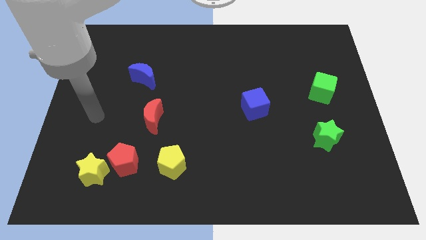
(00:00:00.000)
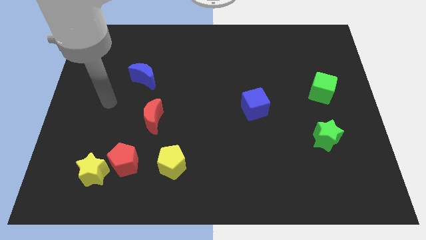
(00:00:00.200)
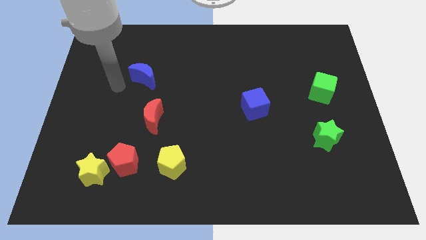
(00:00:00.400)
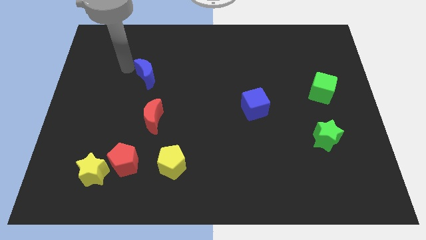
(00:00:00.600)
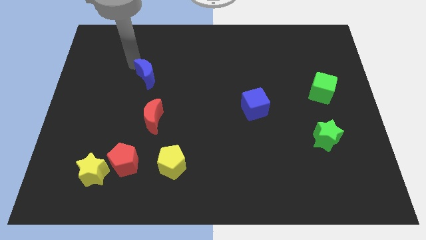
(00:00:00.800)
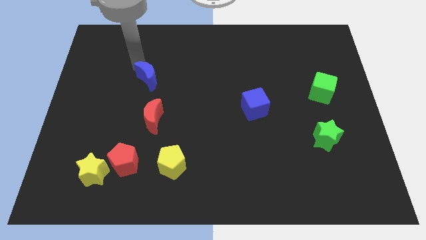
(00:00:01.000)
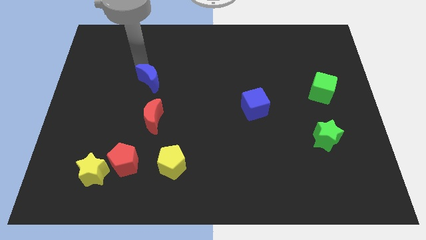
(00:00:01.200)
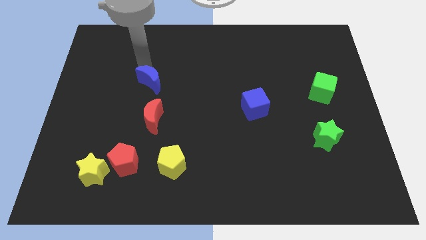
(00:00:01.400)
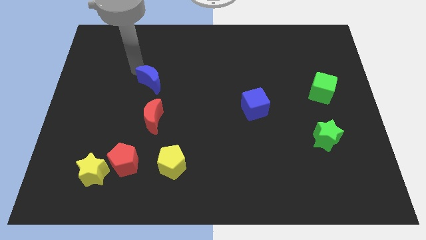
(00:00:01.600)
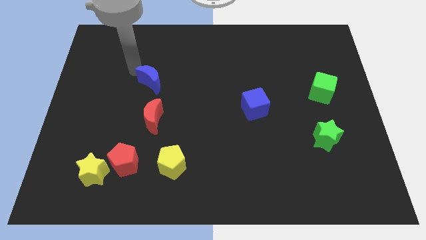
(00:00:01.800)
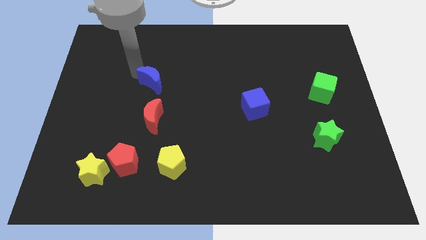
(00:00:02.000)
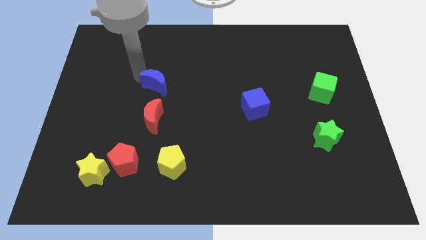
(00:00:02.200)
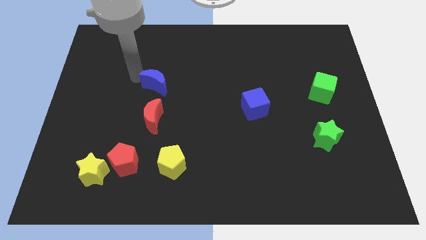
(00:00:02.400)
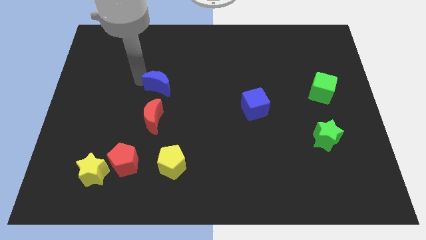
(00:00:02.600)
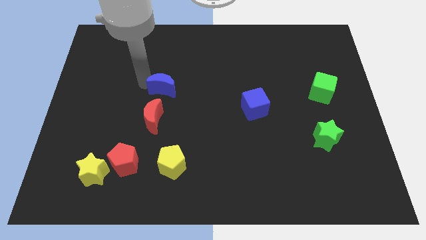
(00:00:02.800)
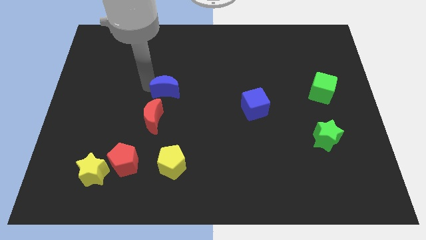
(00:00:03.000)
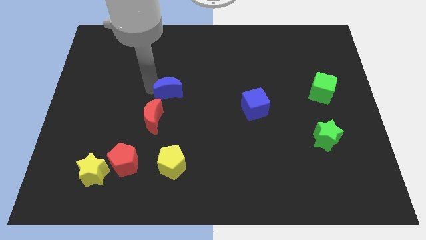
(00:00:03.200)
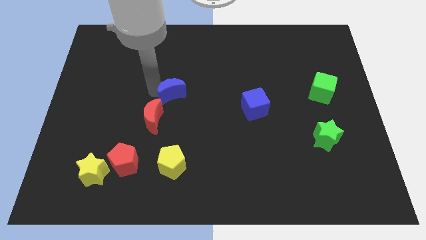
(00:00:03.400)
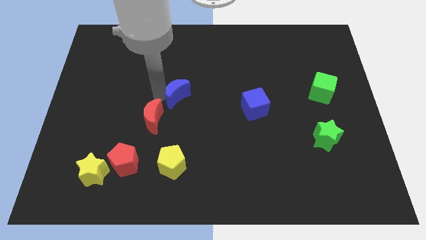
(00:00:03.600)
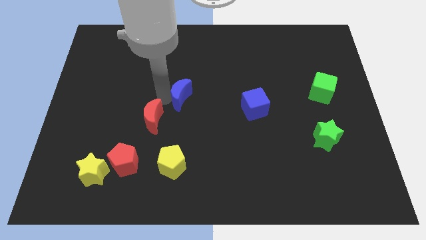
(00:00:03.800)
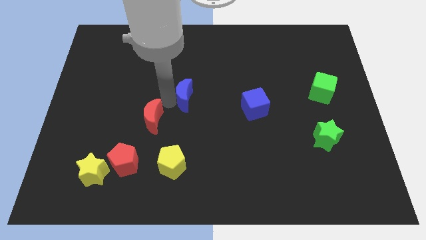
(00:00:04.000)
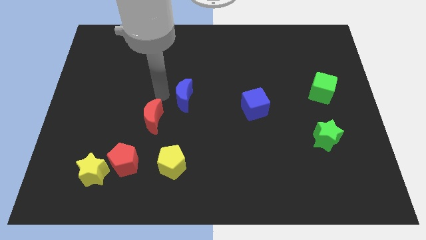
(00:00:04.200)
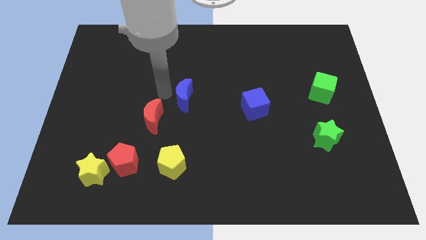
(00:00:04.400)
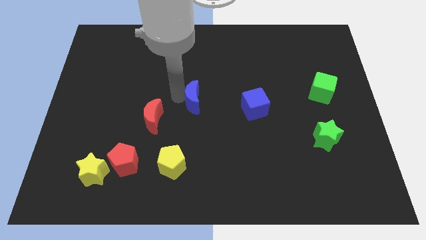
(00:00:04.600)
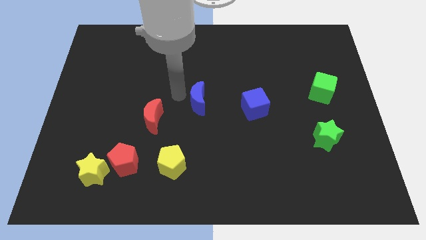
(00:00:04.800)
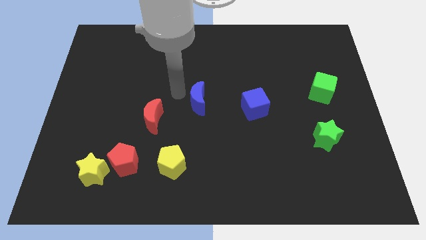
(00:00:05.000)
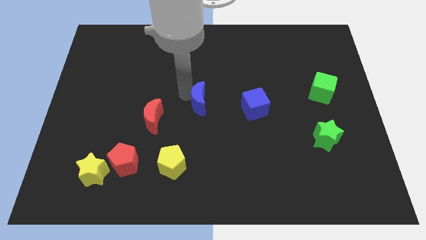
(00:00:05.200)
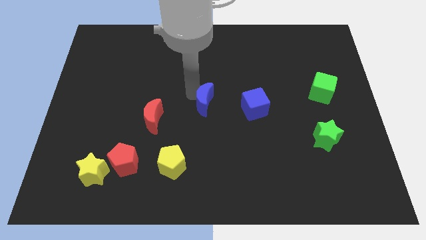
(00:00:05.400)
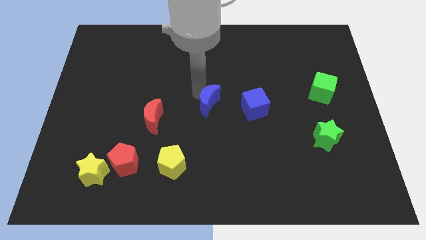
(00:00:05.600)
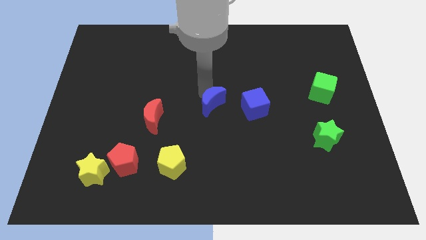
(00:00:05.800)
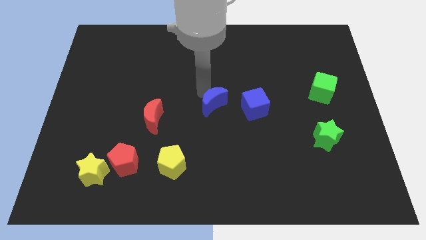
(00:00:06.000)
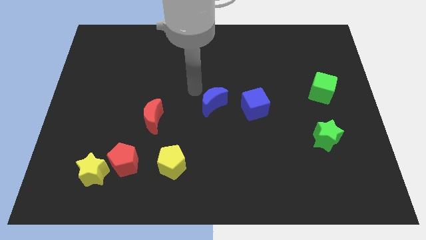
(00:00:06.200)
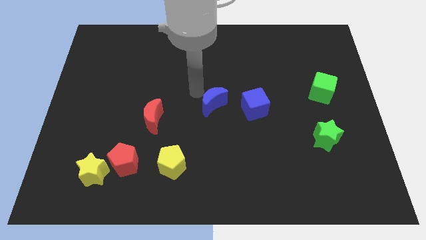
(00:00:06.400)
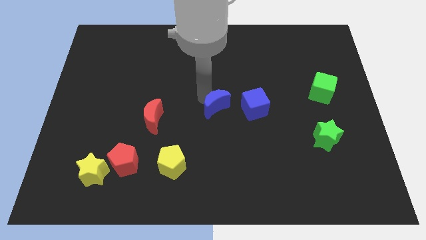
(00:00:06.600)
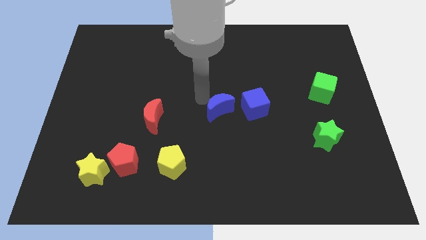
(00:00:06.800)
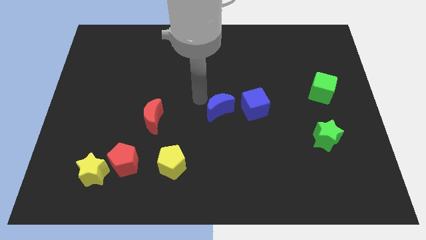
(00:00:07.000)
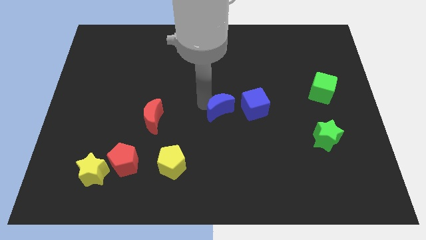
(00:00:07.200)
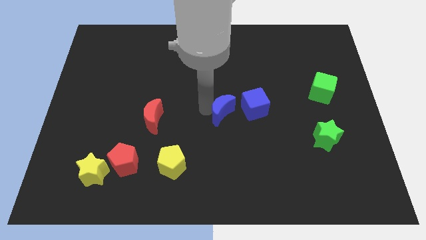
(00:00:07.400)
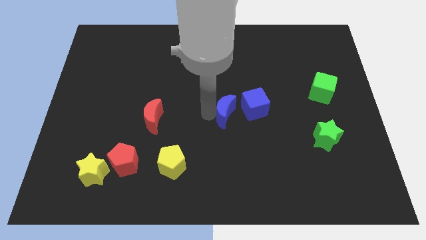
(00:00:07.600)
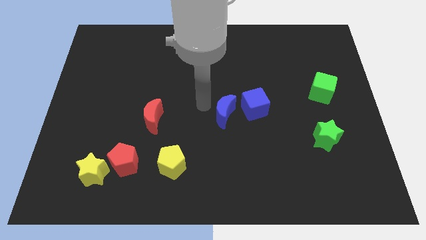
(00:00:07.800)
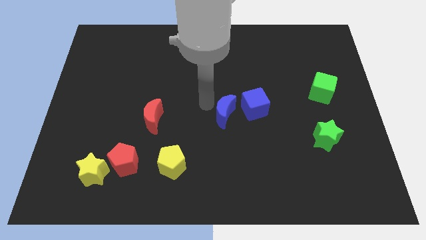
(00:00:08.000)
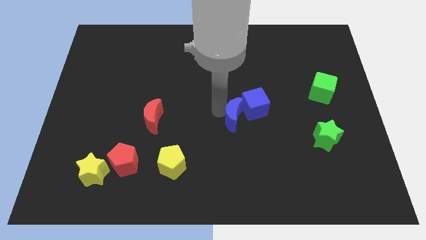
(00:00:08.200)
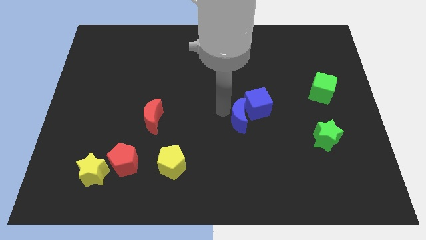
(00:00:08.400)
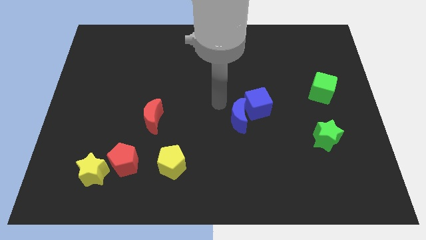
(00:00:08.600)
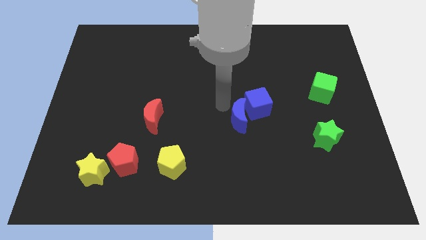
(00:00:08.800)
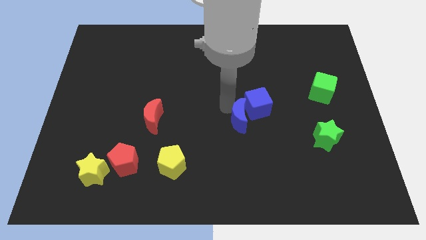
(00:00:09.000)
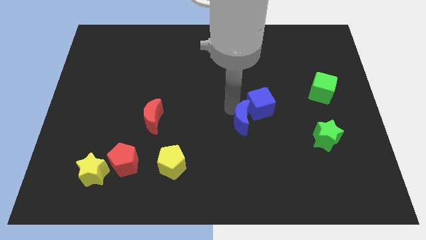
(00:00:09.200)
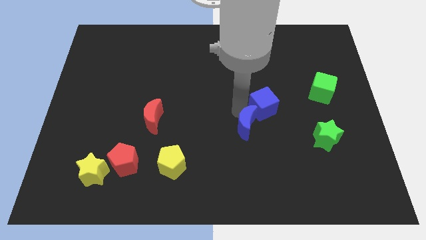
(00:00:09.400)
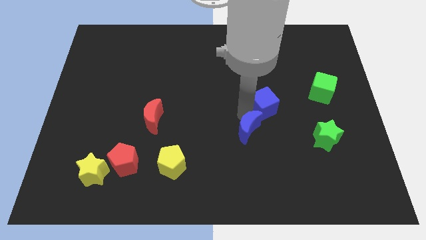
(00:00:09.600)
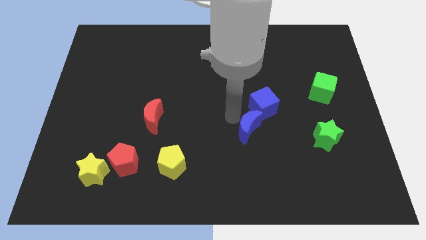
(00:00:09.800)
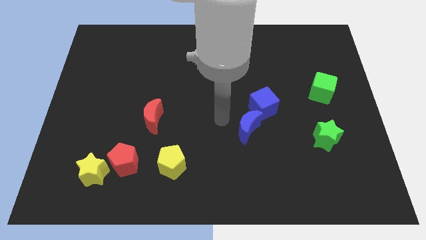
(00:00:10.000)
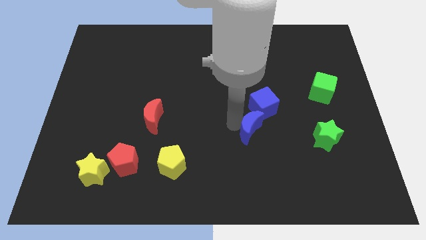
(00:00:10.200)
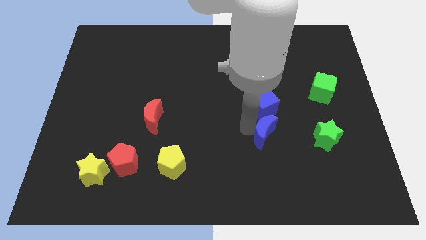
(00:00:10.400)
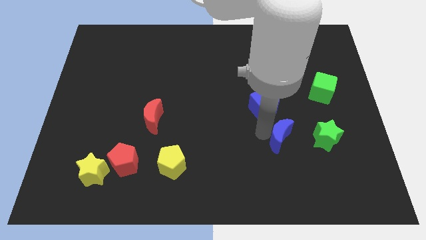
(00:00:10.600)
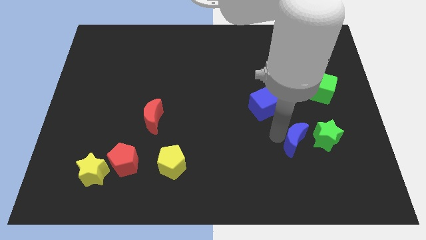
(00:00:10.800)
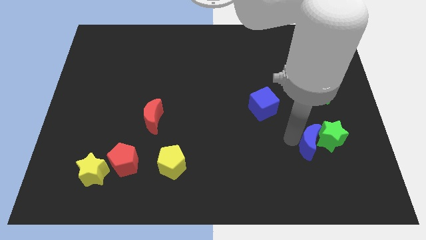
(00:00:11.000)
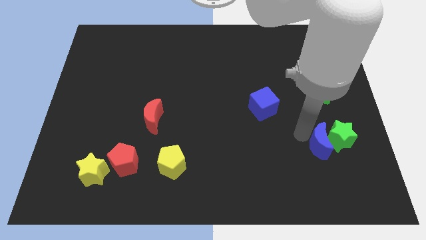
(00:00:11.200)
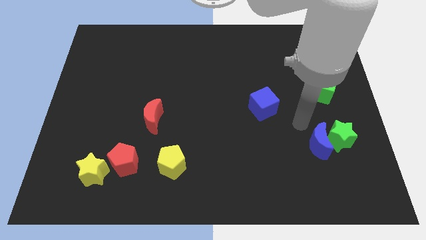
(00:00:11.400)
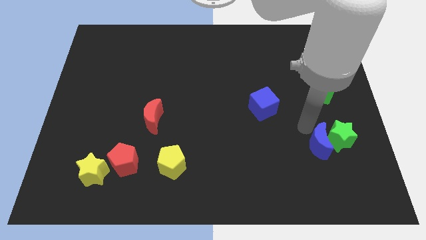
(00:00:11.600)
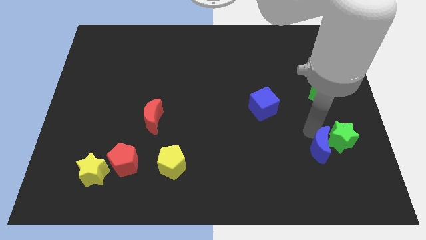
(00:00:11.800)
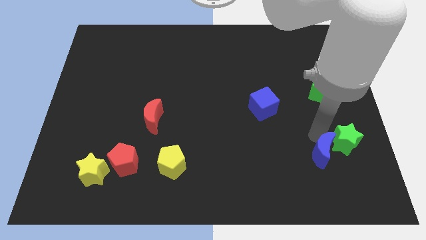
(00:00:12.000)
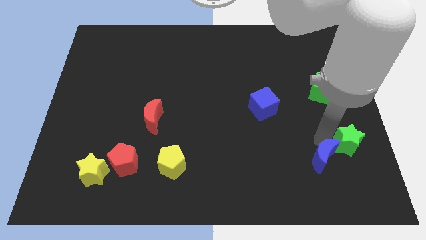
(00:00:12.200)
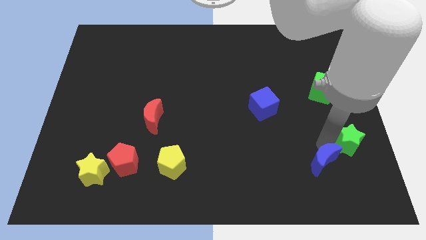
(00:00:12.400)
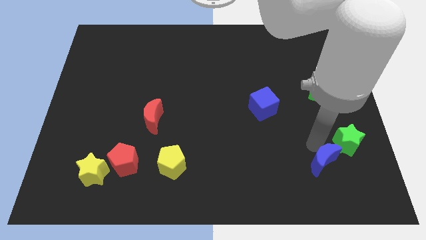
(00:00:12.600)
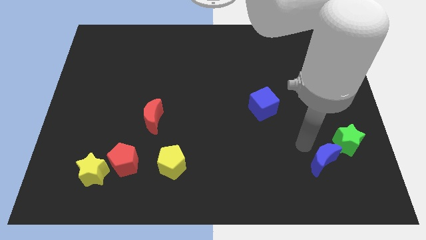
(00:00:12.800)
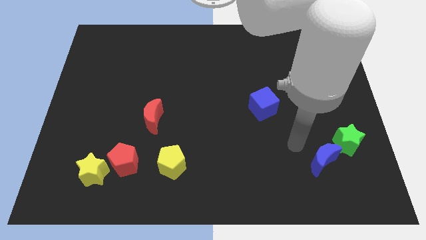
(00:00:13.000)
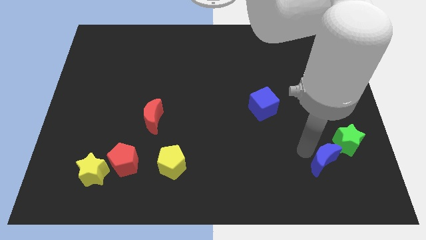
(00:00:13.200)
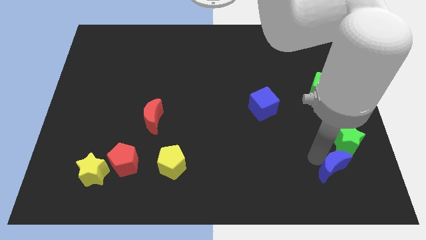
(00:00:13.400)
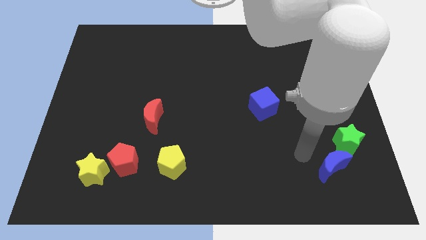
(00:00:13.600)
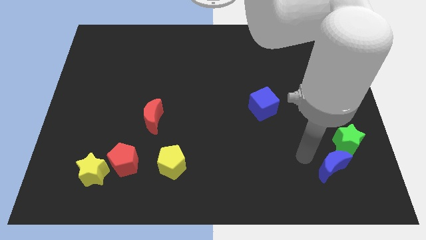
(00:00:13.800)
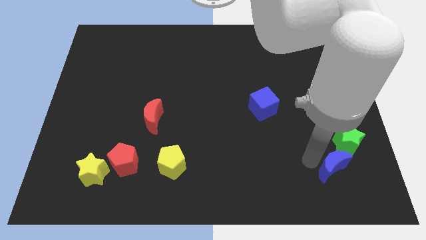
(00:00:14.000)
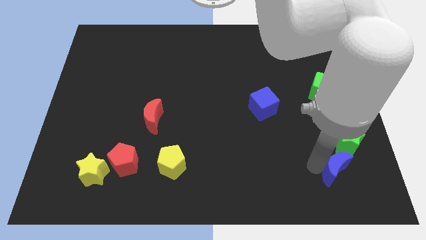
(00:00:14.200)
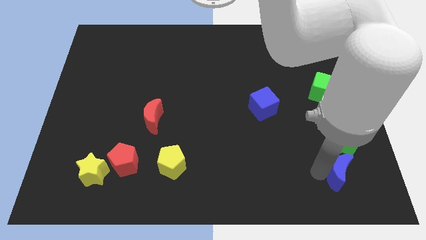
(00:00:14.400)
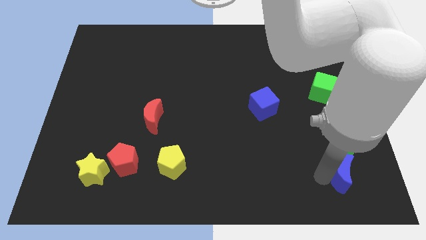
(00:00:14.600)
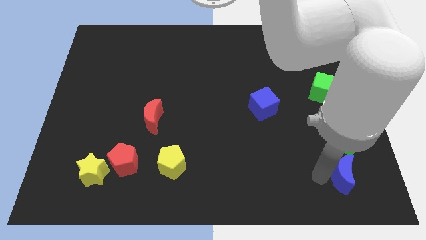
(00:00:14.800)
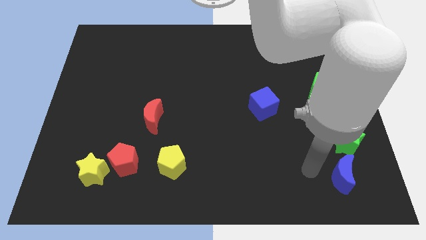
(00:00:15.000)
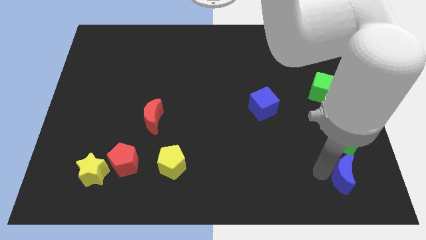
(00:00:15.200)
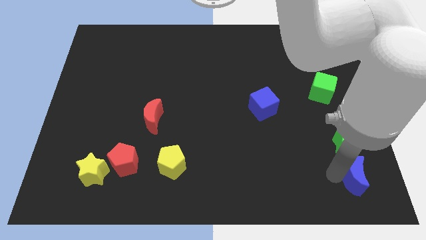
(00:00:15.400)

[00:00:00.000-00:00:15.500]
push the blue moon to the bottom right corner
